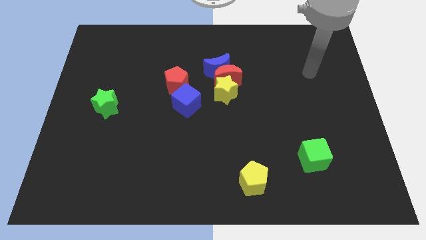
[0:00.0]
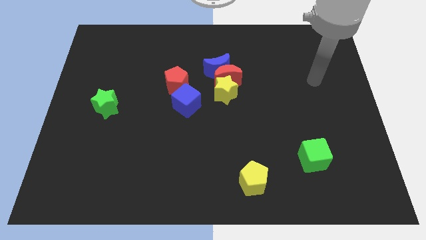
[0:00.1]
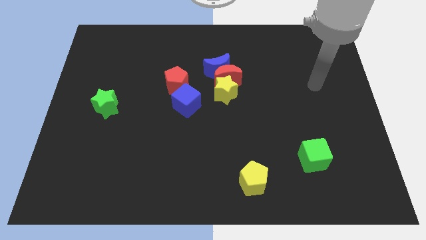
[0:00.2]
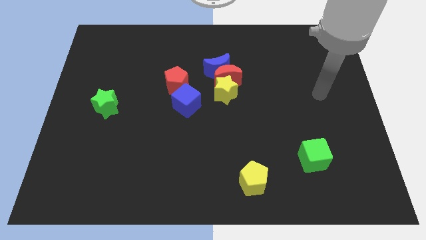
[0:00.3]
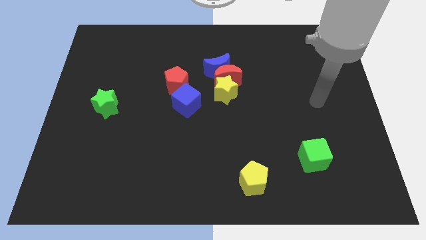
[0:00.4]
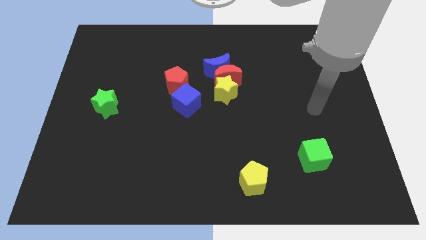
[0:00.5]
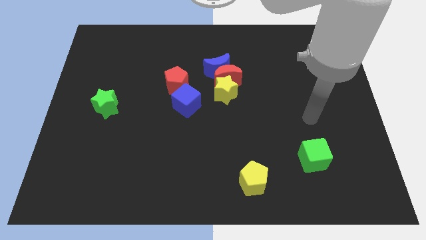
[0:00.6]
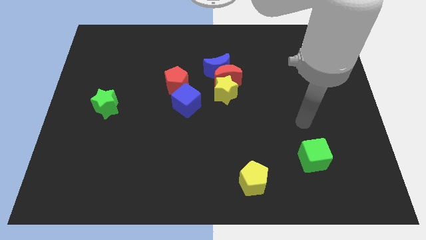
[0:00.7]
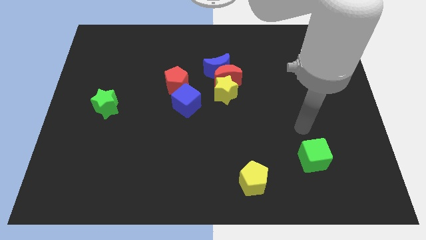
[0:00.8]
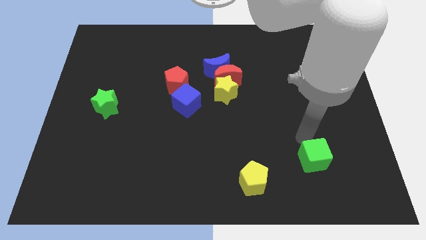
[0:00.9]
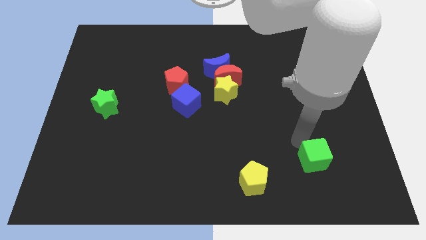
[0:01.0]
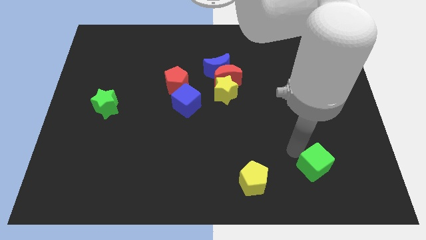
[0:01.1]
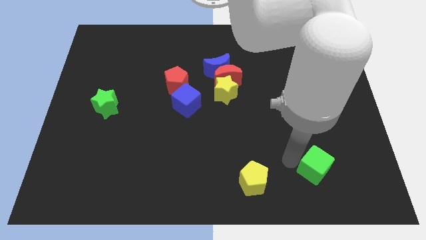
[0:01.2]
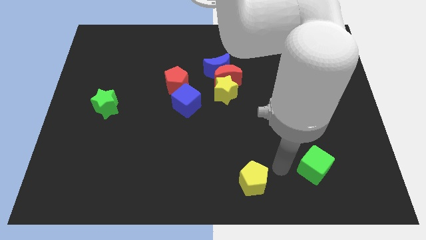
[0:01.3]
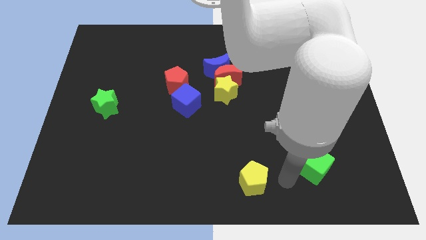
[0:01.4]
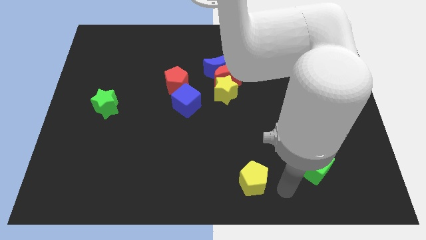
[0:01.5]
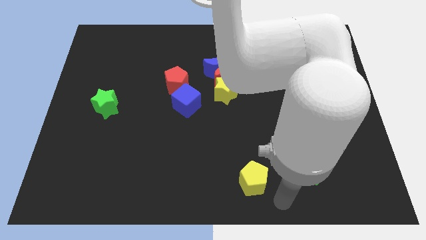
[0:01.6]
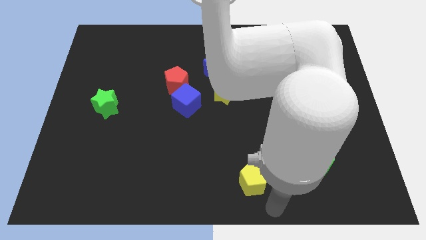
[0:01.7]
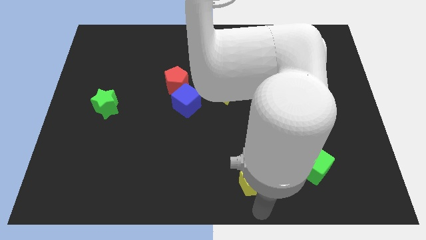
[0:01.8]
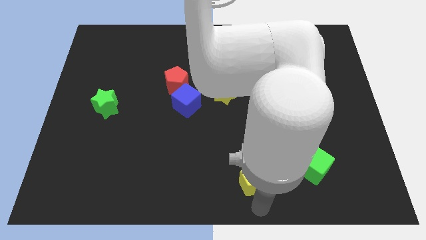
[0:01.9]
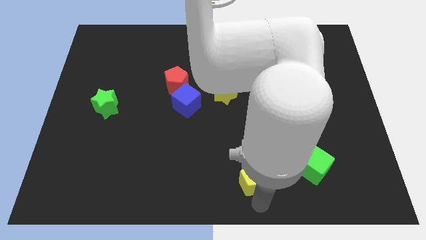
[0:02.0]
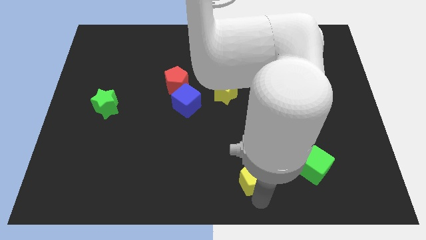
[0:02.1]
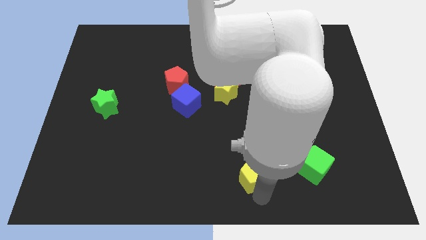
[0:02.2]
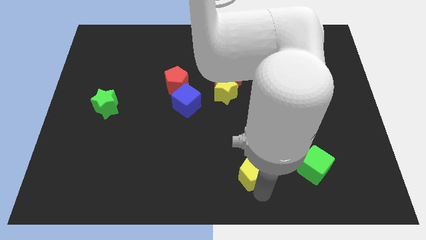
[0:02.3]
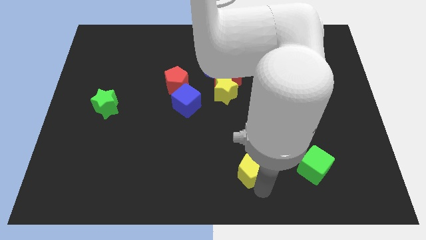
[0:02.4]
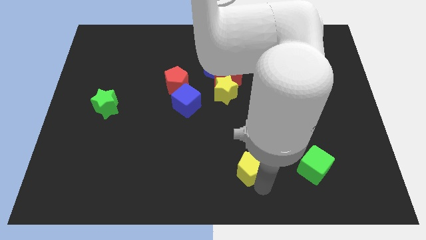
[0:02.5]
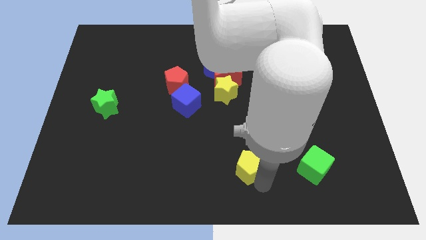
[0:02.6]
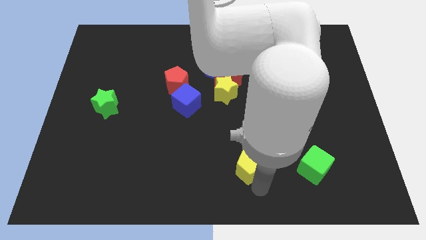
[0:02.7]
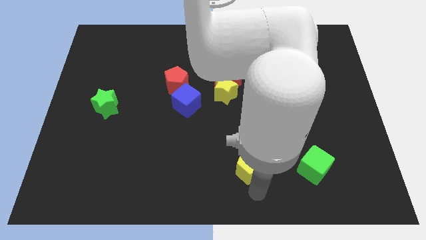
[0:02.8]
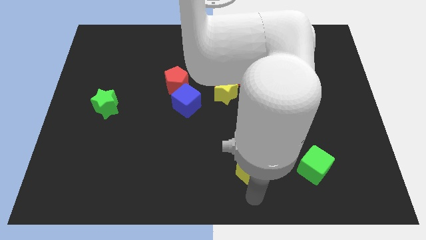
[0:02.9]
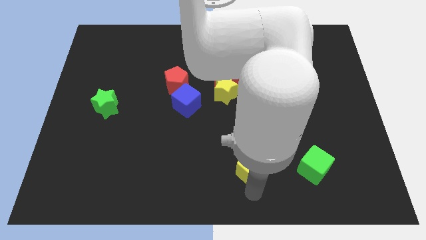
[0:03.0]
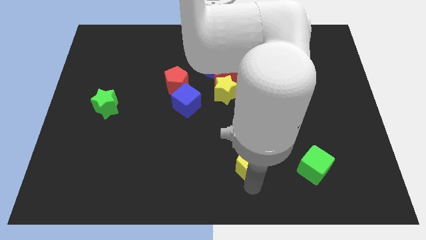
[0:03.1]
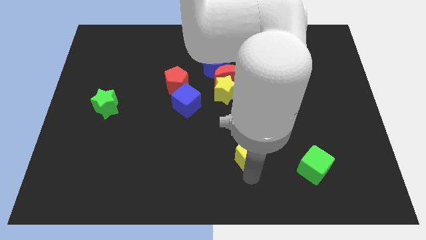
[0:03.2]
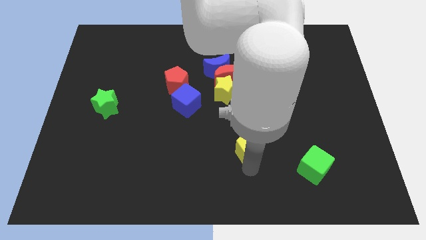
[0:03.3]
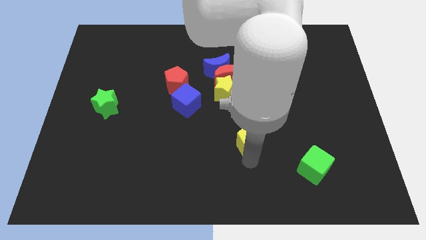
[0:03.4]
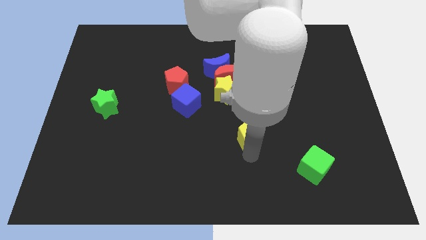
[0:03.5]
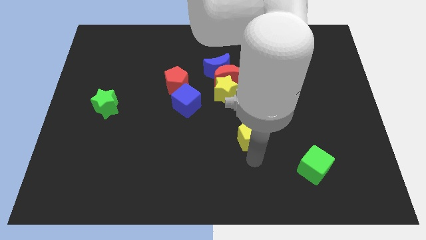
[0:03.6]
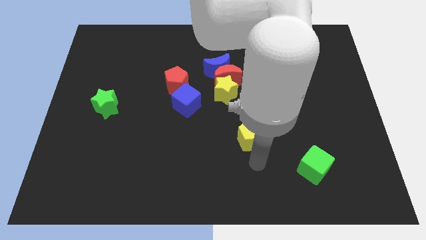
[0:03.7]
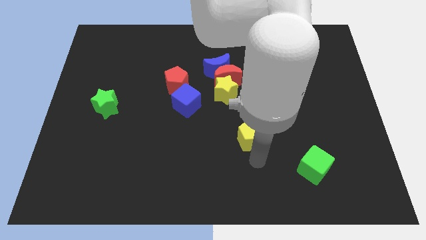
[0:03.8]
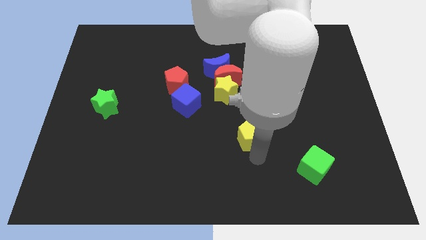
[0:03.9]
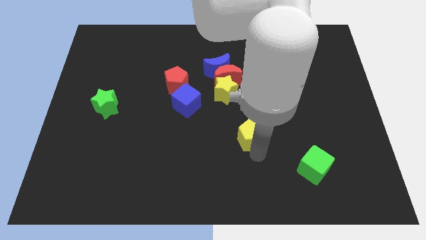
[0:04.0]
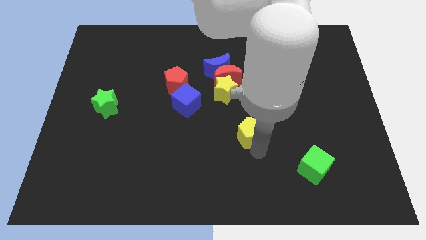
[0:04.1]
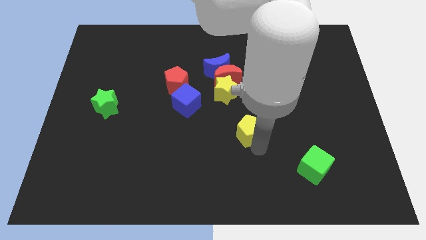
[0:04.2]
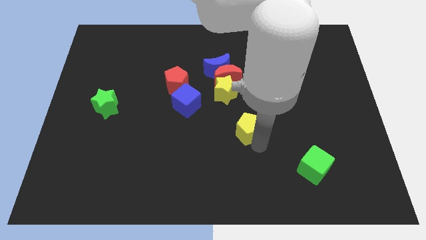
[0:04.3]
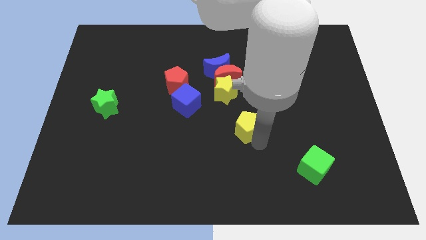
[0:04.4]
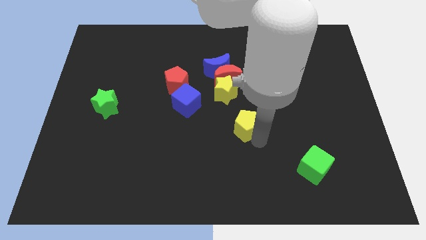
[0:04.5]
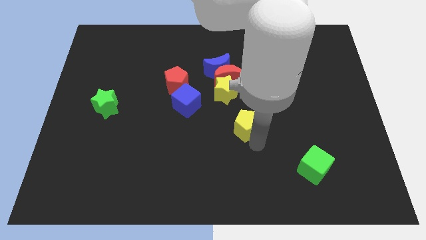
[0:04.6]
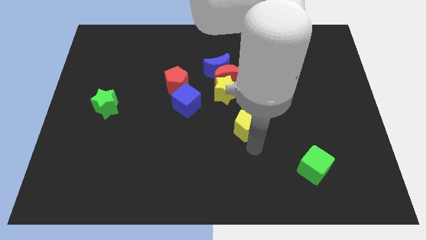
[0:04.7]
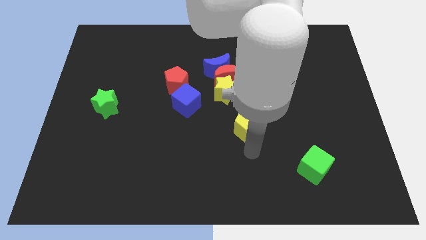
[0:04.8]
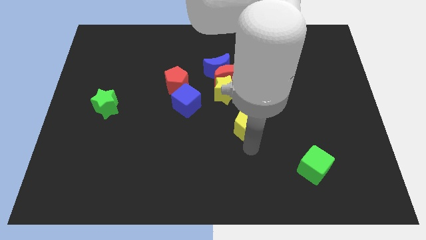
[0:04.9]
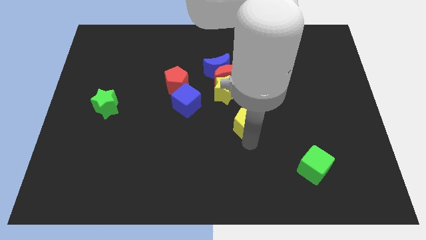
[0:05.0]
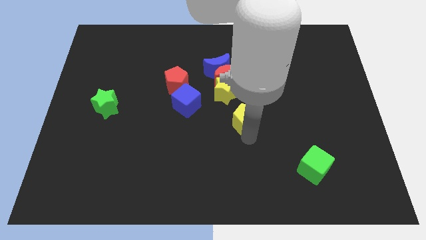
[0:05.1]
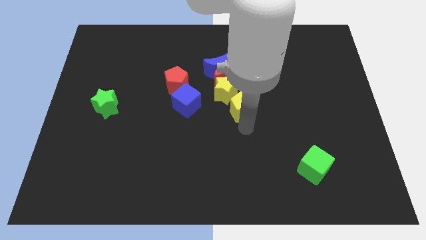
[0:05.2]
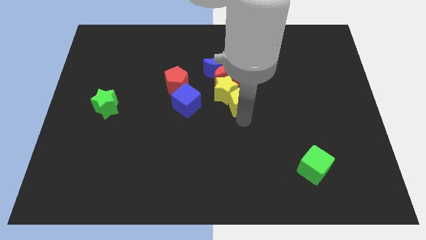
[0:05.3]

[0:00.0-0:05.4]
move the yellow pentagon upwards

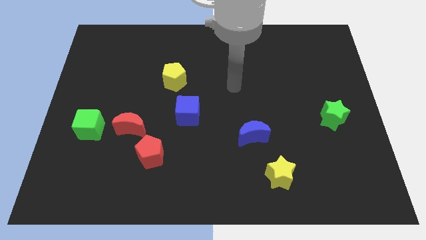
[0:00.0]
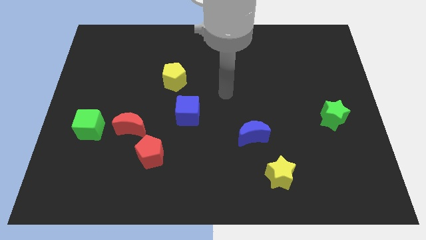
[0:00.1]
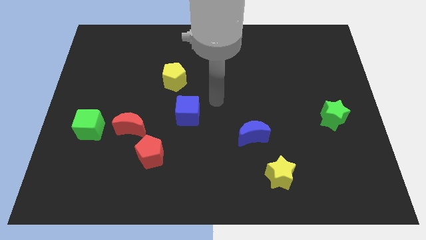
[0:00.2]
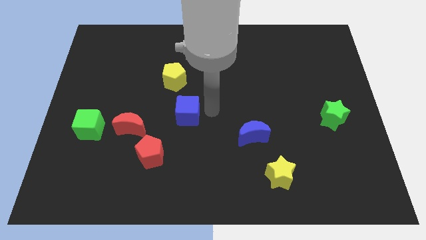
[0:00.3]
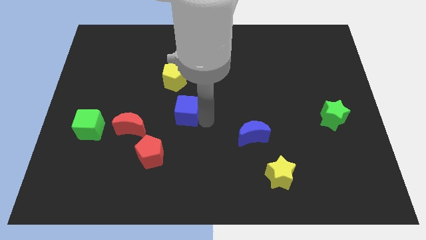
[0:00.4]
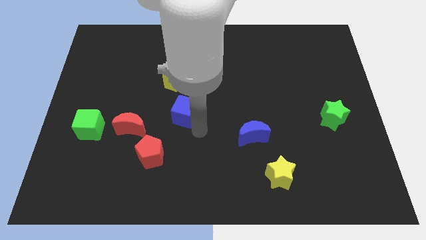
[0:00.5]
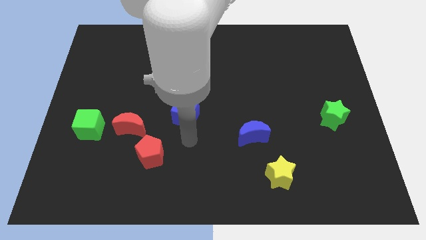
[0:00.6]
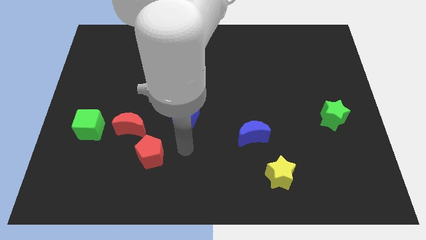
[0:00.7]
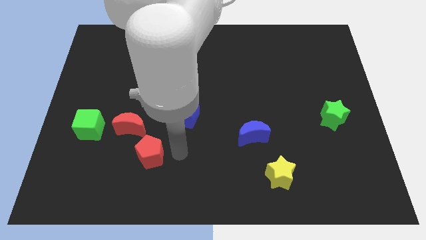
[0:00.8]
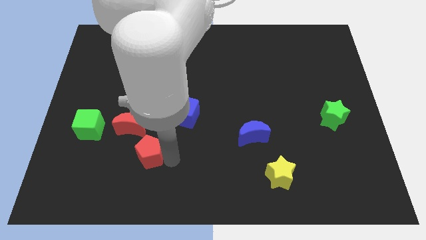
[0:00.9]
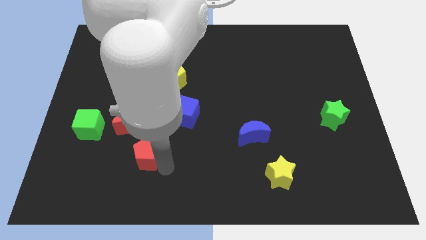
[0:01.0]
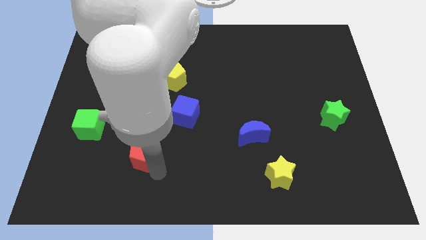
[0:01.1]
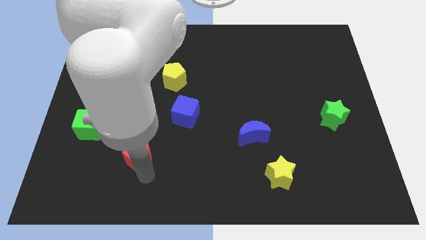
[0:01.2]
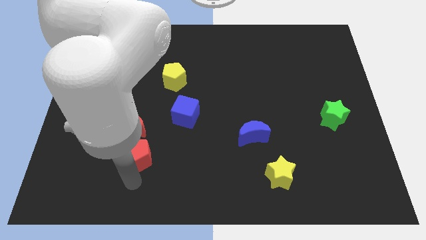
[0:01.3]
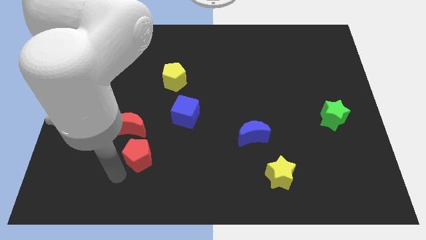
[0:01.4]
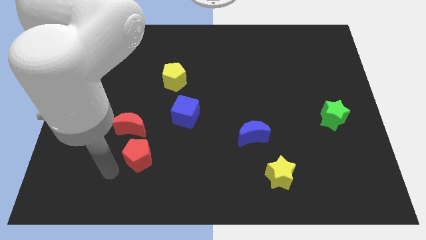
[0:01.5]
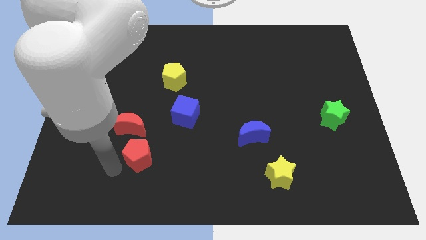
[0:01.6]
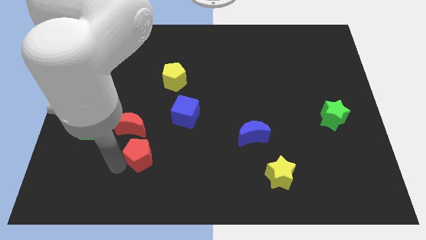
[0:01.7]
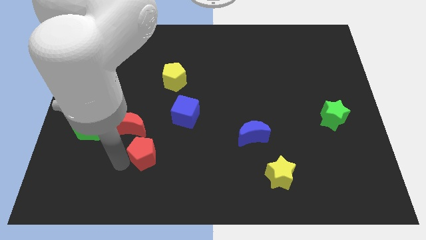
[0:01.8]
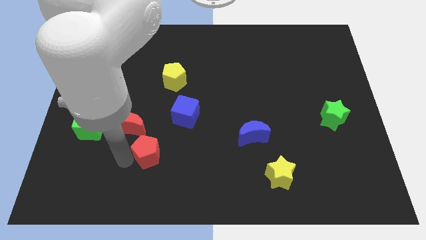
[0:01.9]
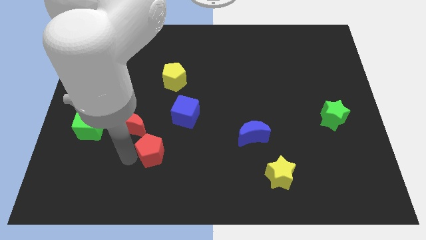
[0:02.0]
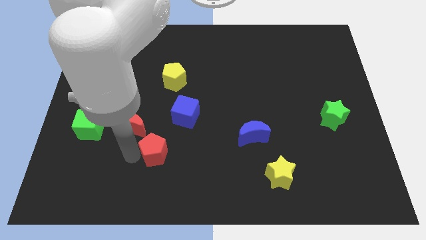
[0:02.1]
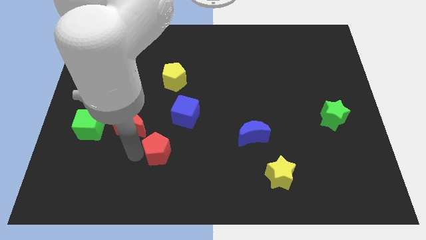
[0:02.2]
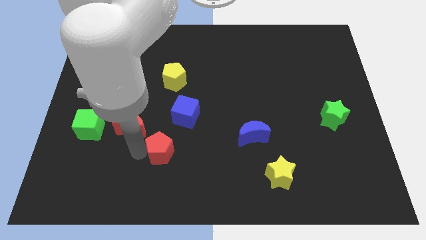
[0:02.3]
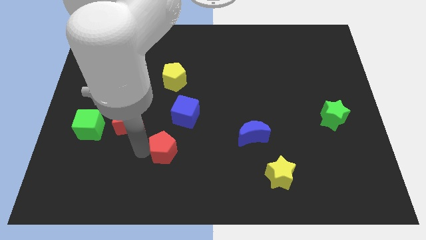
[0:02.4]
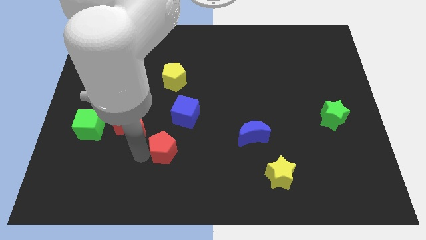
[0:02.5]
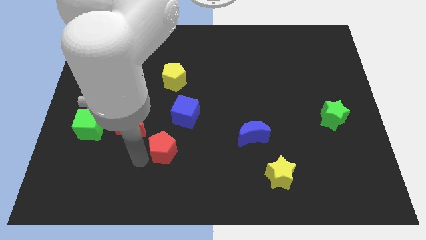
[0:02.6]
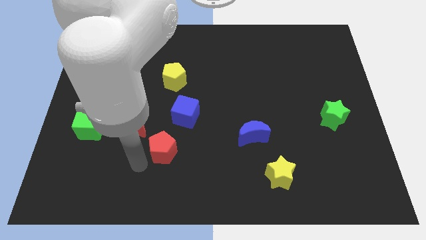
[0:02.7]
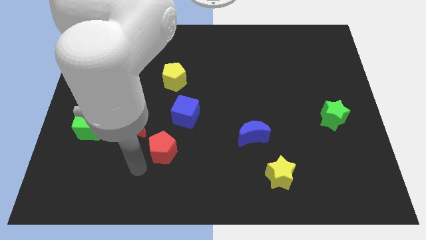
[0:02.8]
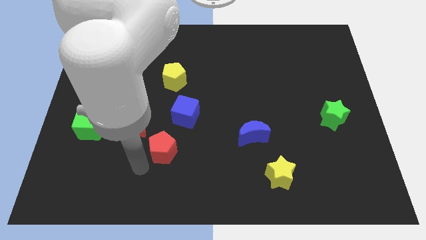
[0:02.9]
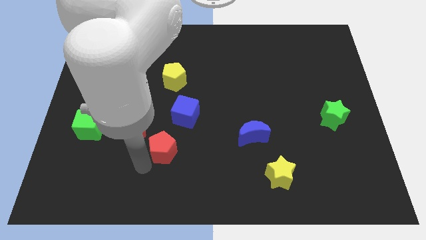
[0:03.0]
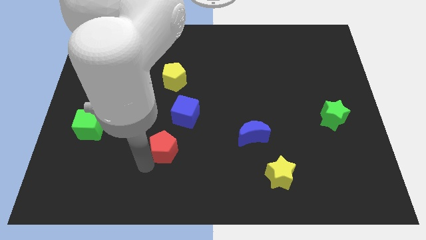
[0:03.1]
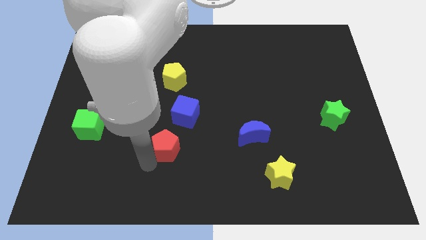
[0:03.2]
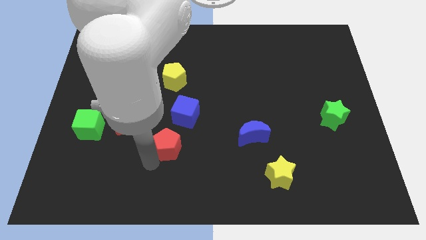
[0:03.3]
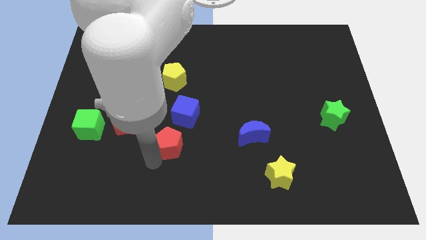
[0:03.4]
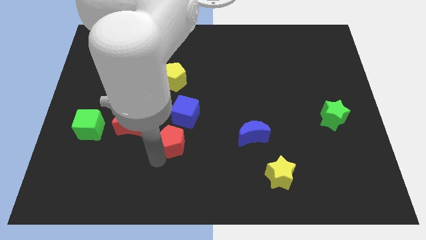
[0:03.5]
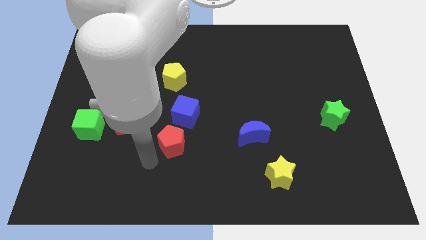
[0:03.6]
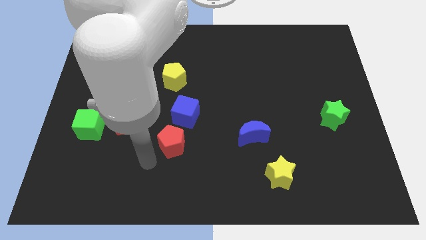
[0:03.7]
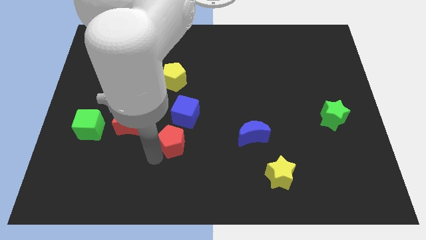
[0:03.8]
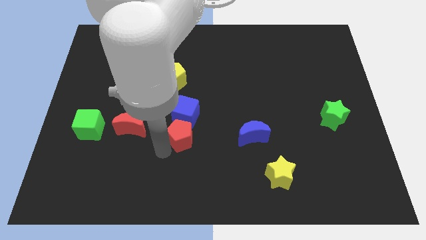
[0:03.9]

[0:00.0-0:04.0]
slightly push the red pentagon up and then to the right
